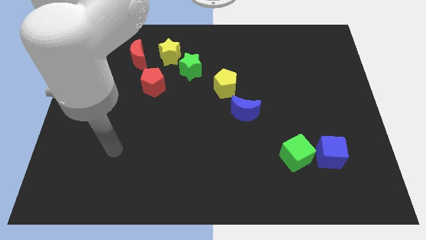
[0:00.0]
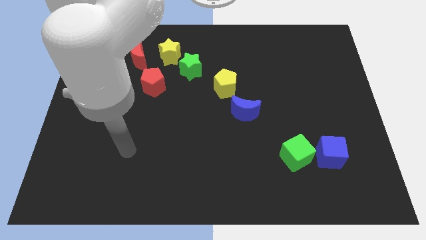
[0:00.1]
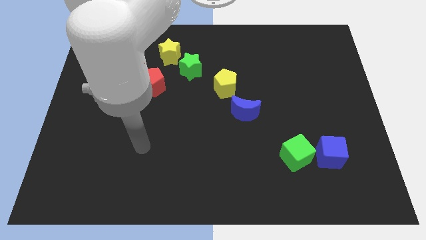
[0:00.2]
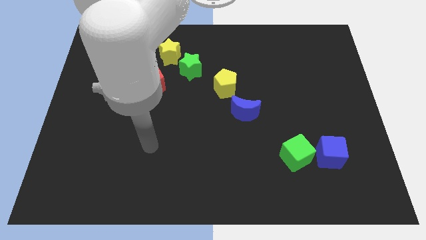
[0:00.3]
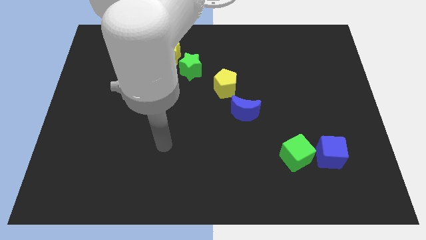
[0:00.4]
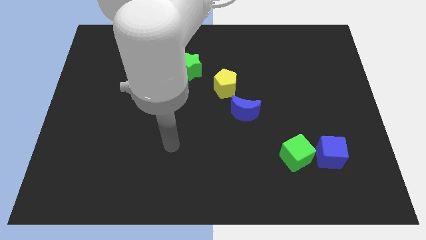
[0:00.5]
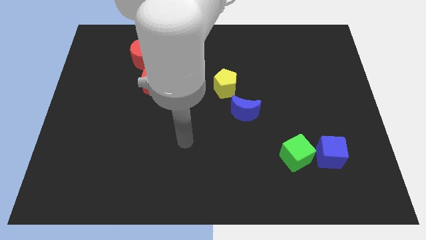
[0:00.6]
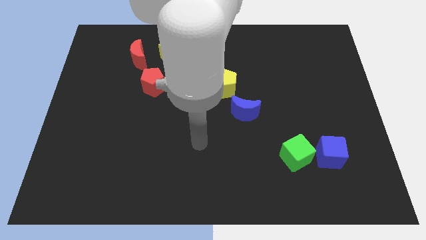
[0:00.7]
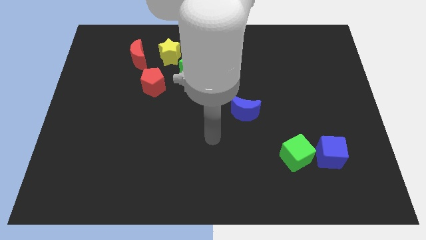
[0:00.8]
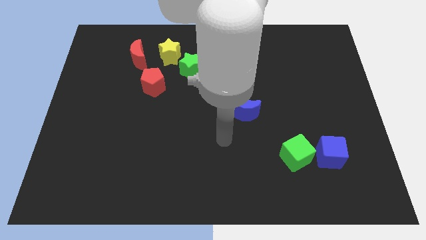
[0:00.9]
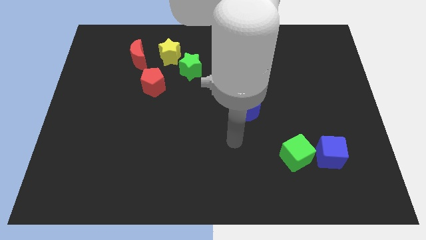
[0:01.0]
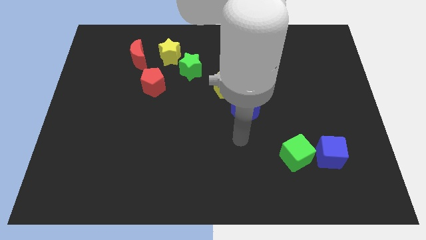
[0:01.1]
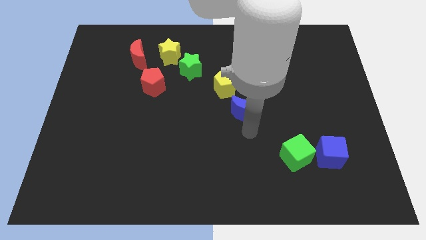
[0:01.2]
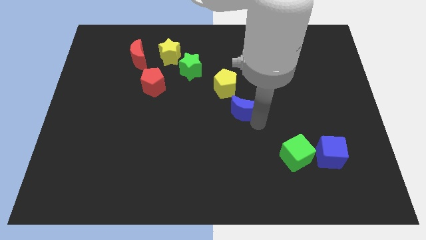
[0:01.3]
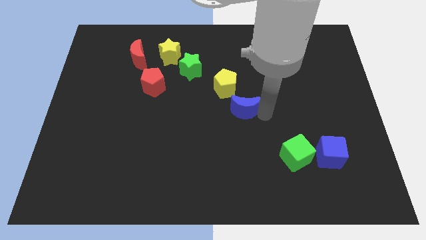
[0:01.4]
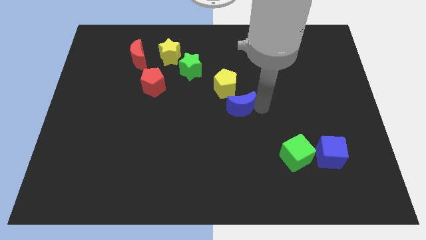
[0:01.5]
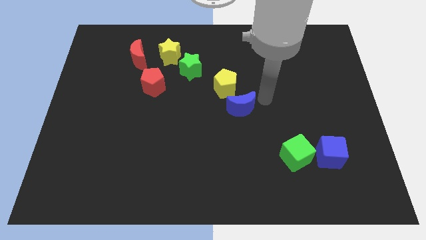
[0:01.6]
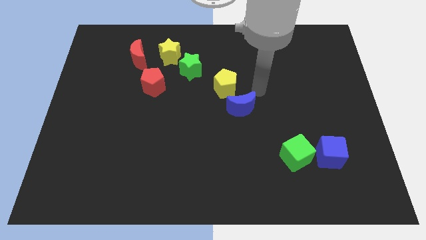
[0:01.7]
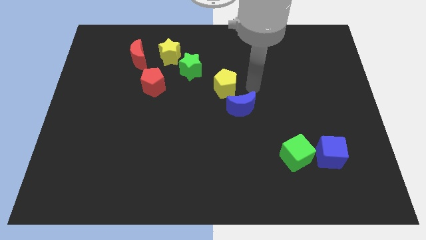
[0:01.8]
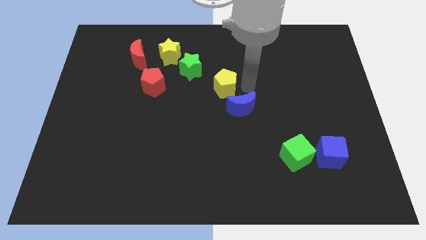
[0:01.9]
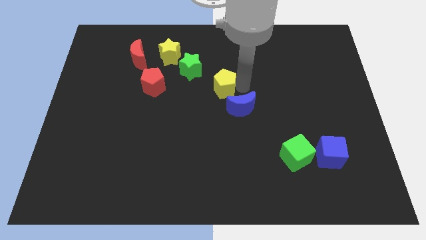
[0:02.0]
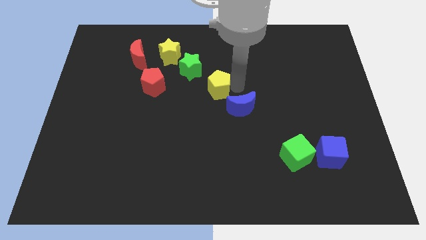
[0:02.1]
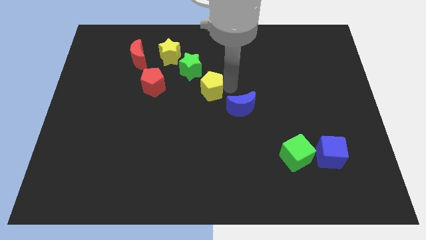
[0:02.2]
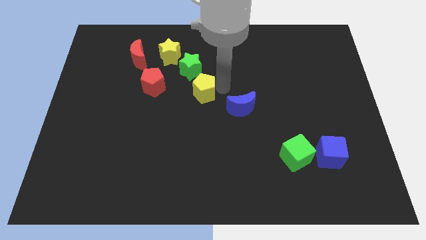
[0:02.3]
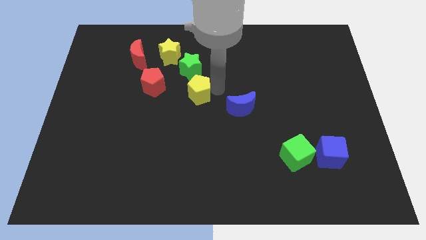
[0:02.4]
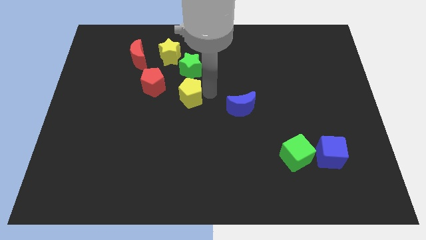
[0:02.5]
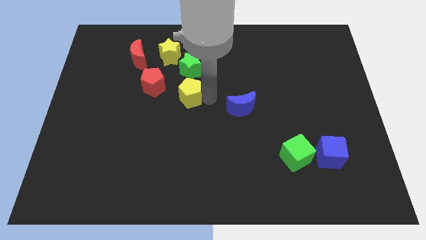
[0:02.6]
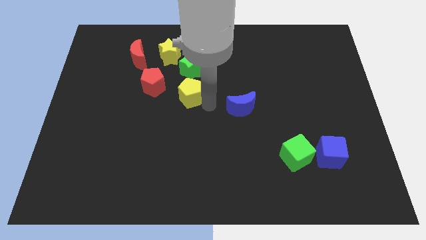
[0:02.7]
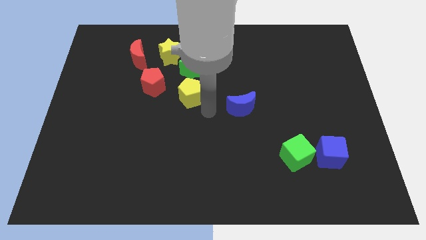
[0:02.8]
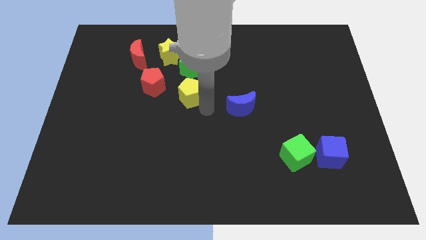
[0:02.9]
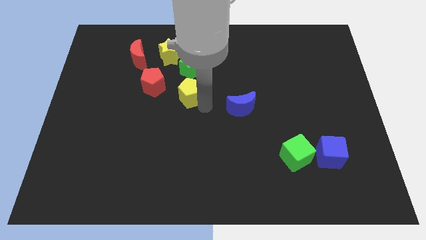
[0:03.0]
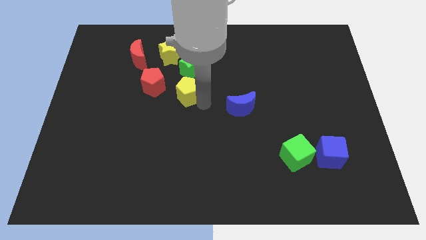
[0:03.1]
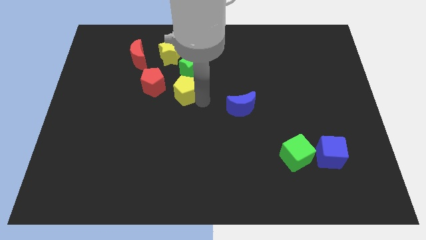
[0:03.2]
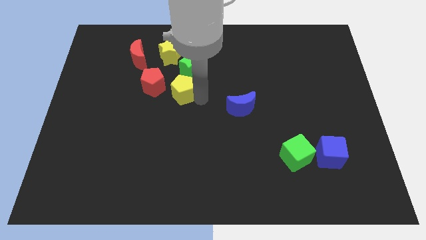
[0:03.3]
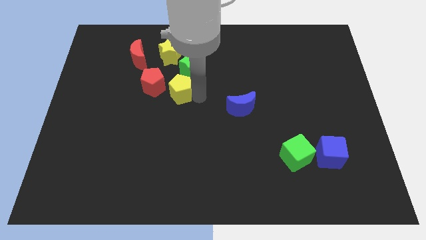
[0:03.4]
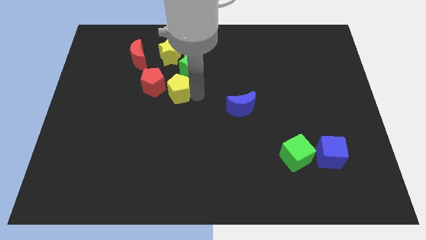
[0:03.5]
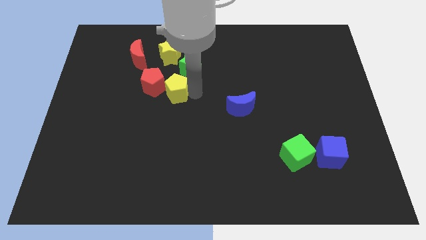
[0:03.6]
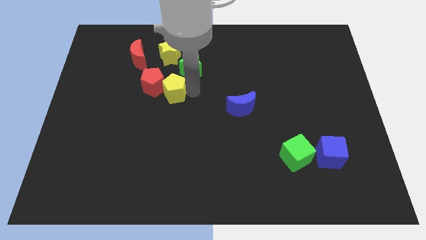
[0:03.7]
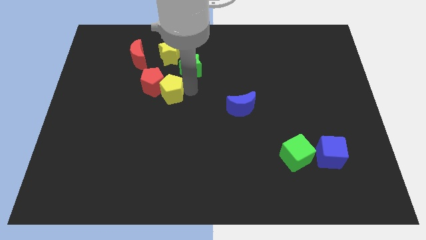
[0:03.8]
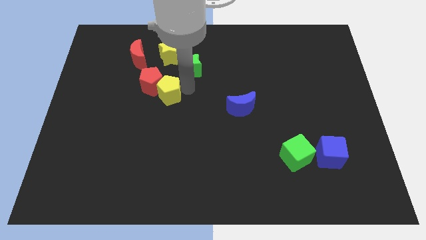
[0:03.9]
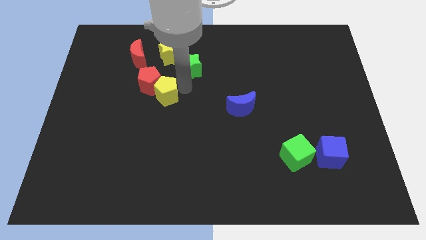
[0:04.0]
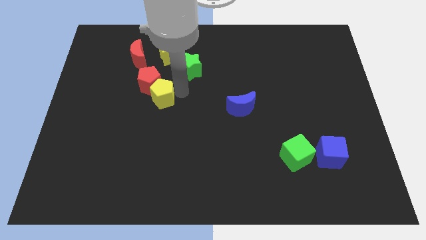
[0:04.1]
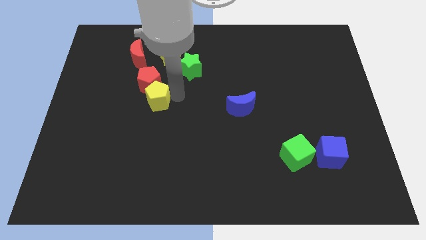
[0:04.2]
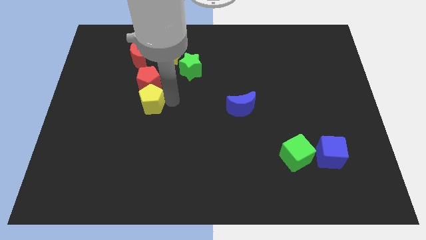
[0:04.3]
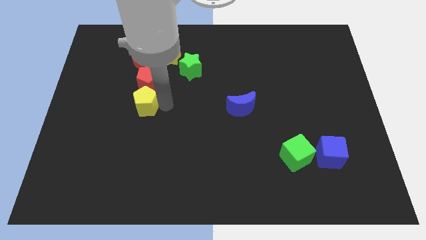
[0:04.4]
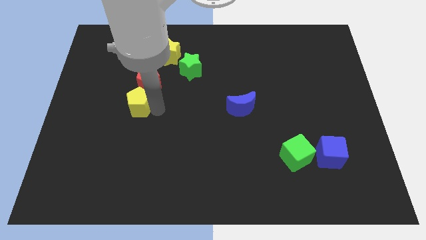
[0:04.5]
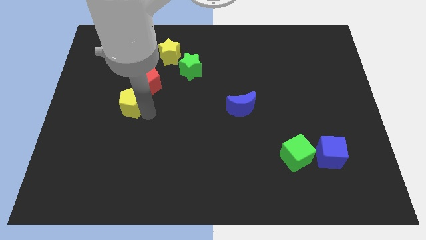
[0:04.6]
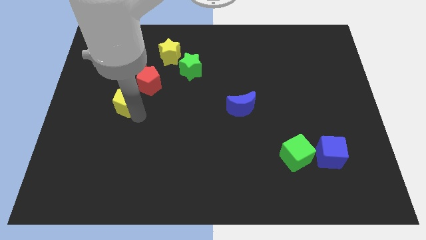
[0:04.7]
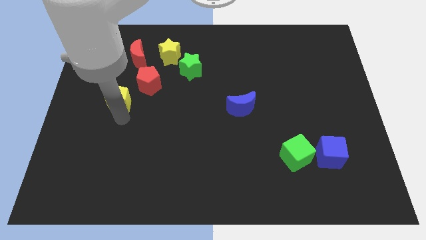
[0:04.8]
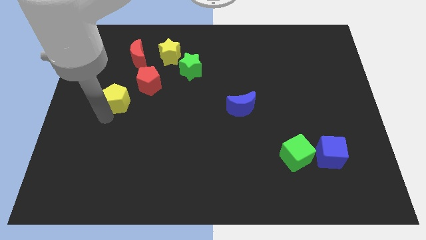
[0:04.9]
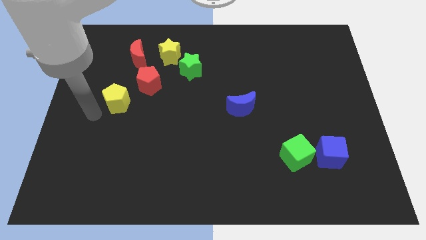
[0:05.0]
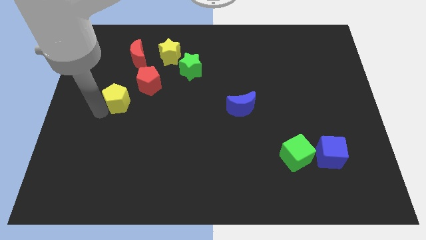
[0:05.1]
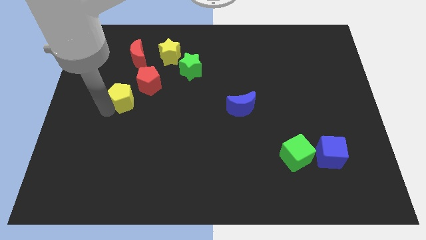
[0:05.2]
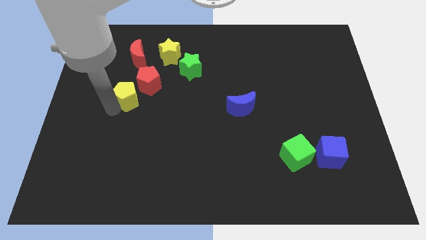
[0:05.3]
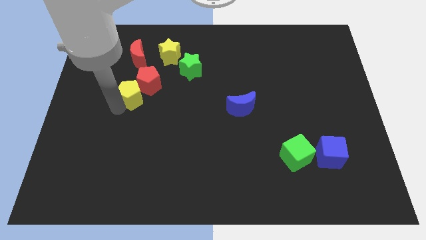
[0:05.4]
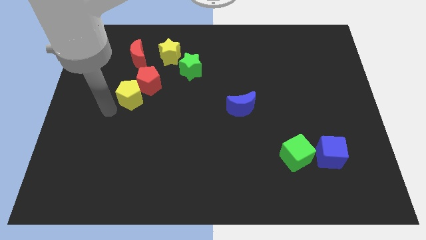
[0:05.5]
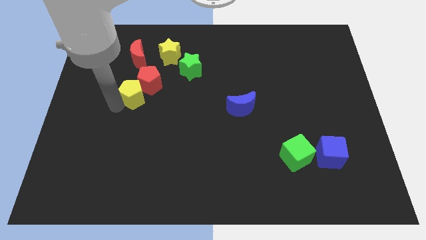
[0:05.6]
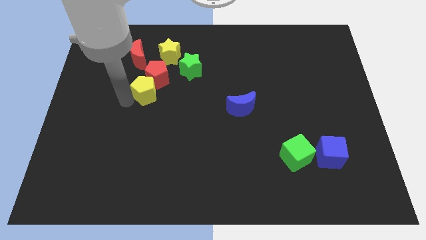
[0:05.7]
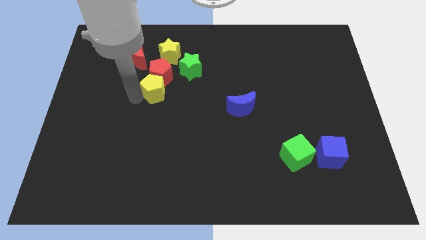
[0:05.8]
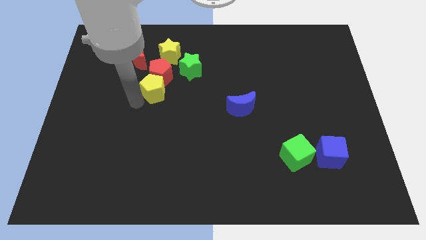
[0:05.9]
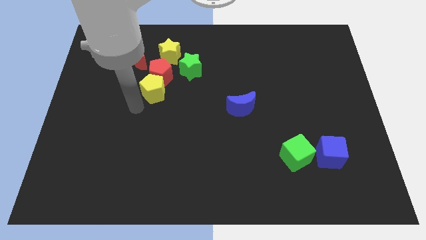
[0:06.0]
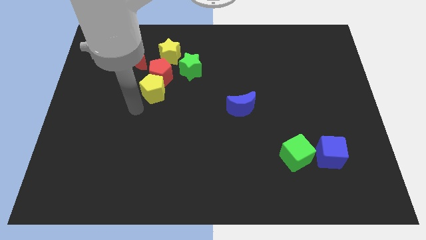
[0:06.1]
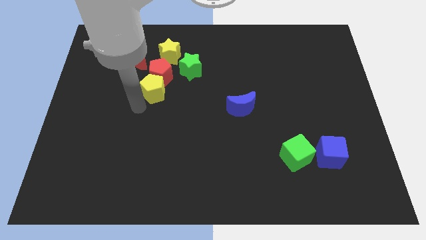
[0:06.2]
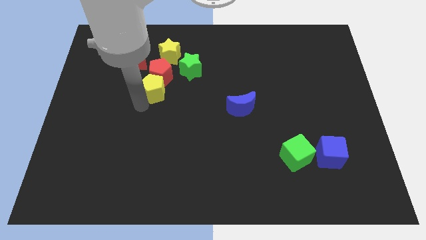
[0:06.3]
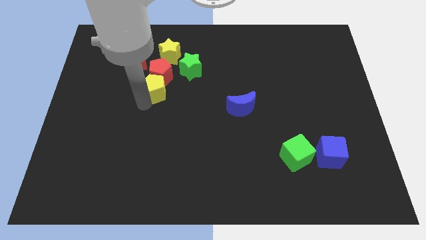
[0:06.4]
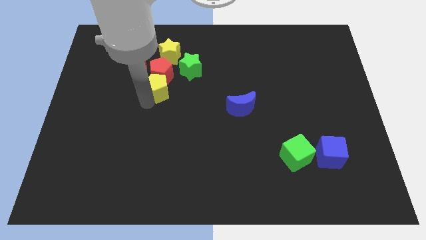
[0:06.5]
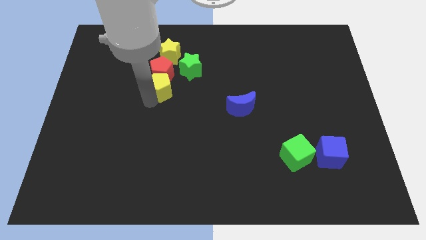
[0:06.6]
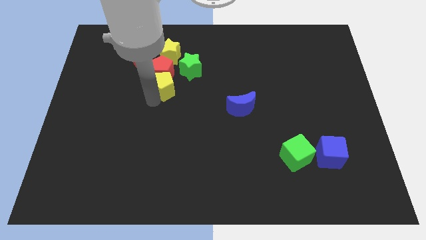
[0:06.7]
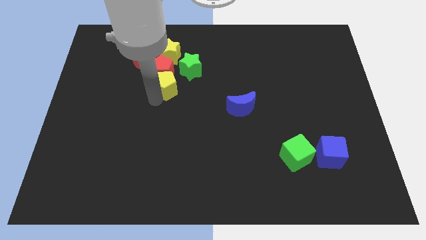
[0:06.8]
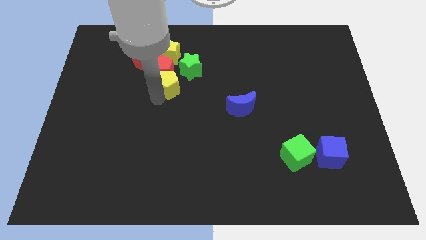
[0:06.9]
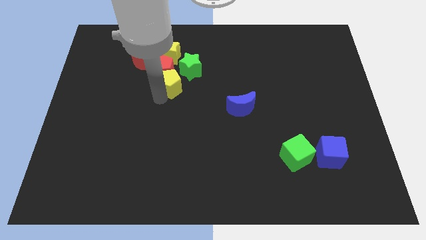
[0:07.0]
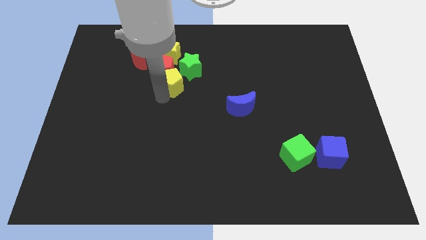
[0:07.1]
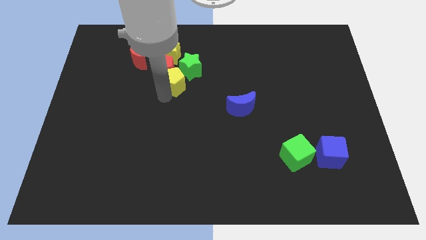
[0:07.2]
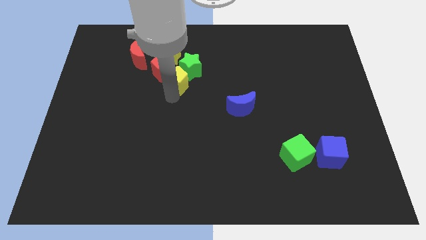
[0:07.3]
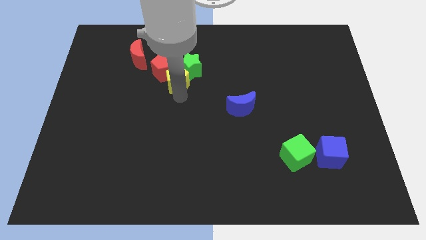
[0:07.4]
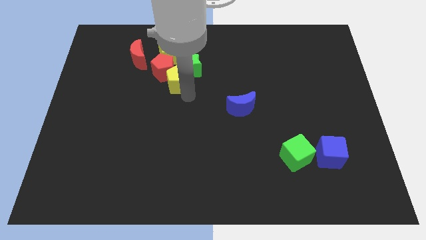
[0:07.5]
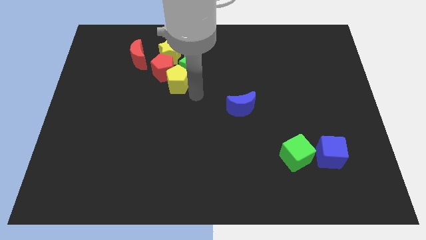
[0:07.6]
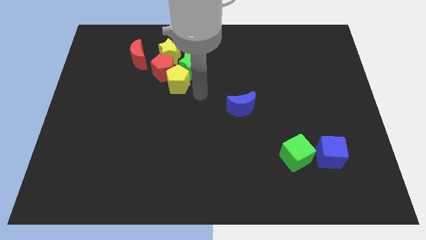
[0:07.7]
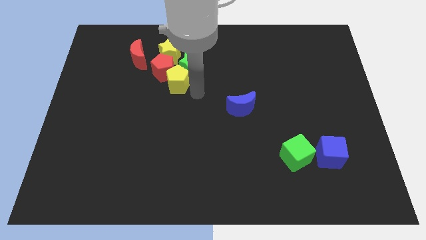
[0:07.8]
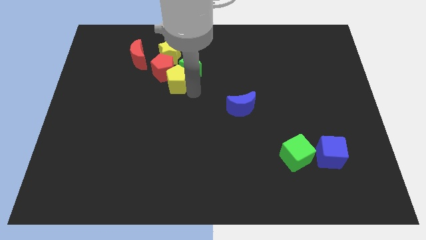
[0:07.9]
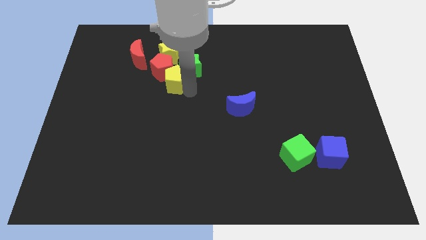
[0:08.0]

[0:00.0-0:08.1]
put the yellow pentagon to the left of the green star
